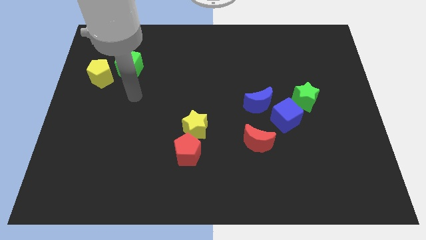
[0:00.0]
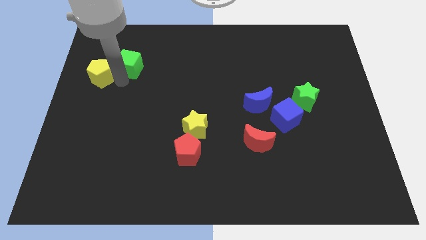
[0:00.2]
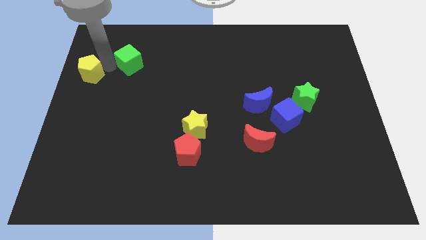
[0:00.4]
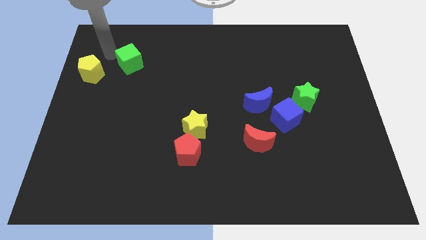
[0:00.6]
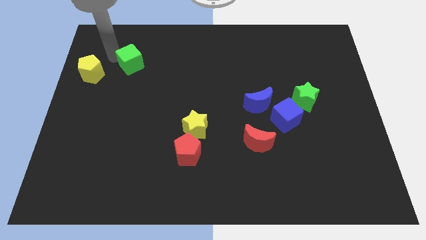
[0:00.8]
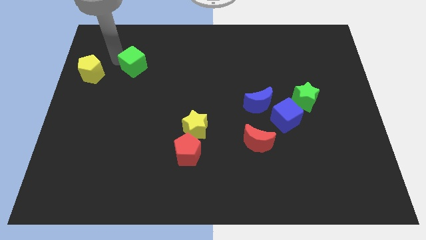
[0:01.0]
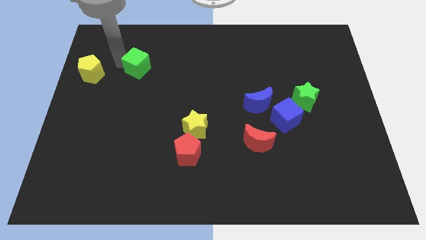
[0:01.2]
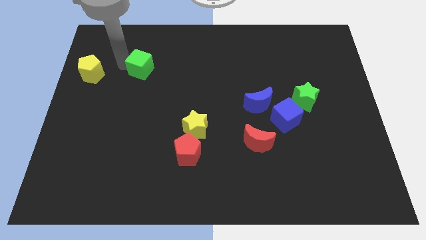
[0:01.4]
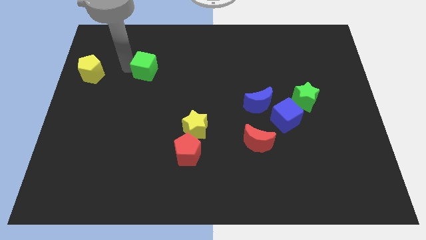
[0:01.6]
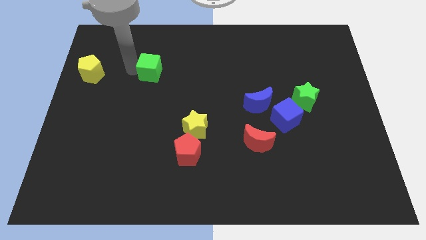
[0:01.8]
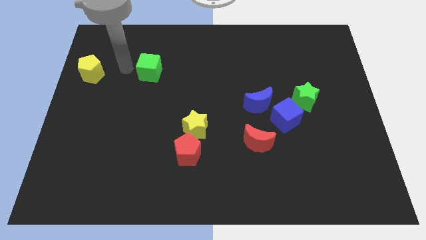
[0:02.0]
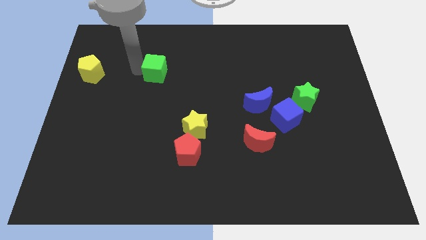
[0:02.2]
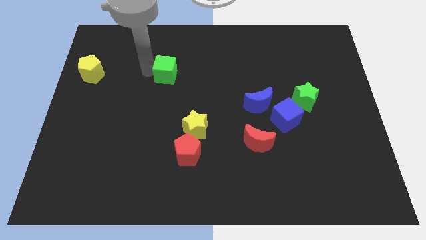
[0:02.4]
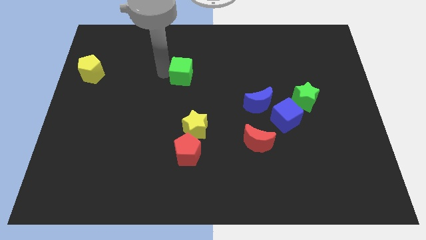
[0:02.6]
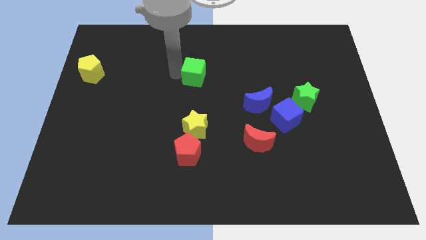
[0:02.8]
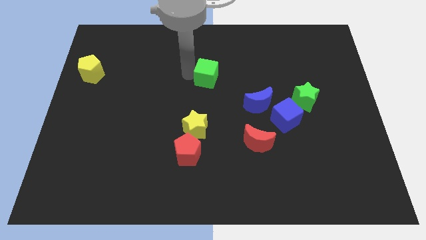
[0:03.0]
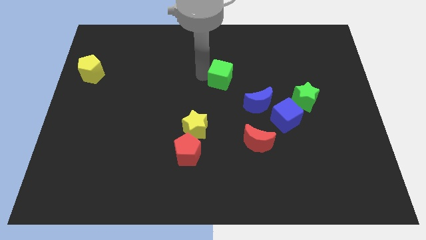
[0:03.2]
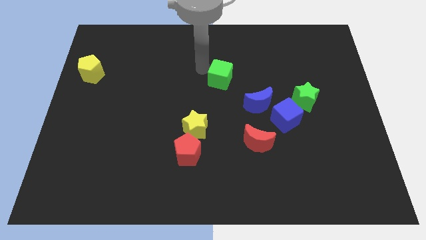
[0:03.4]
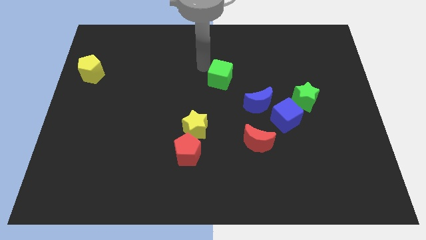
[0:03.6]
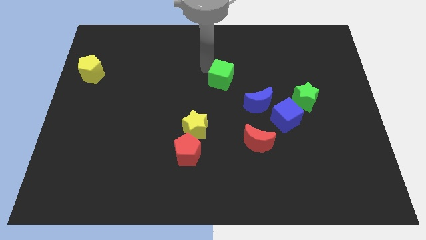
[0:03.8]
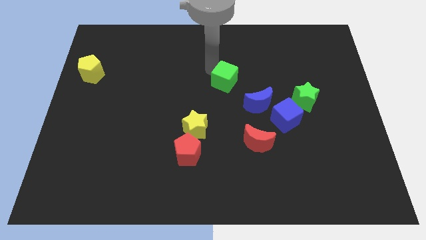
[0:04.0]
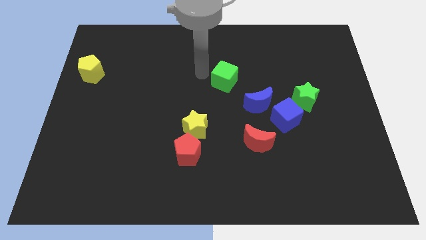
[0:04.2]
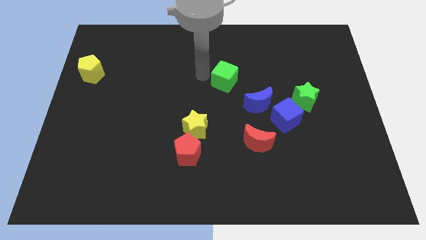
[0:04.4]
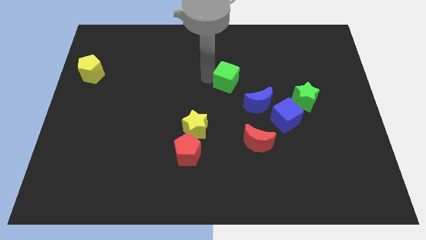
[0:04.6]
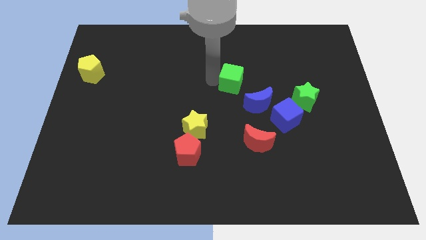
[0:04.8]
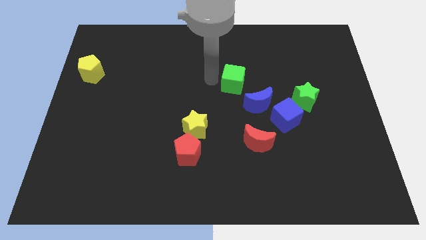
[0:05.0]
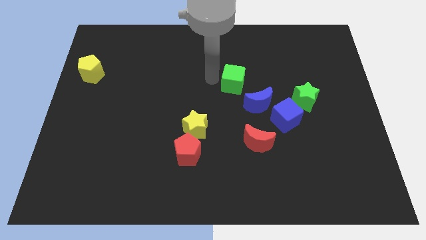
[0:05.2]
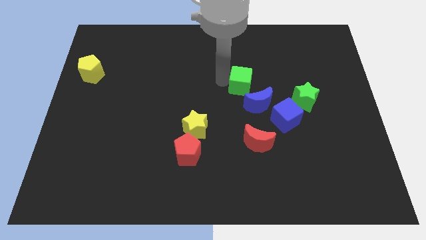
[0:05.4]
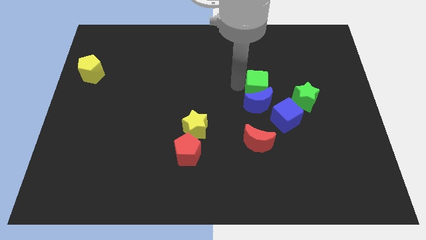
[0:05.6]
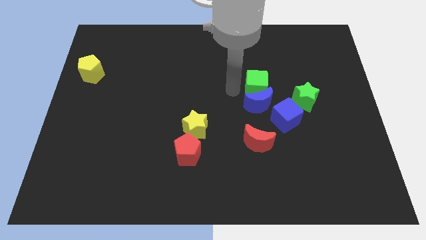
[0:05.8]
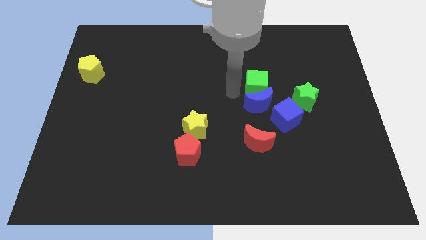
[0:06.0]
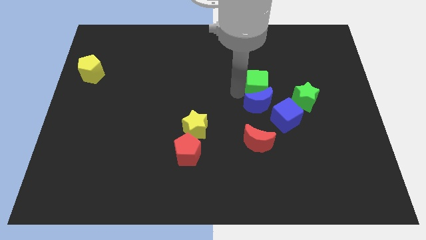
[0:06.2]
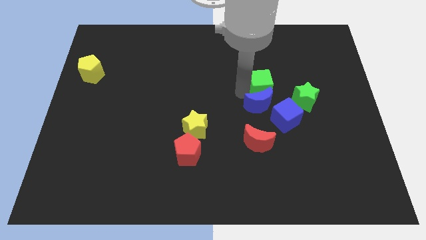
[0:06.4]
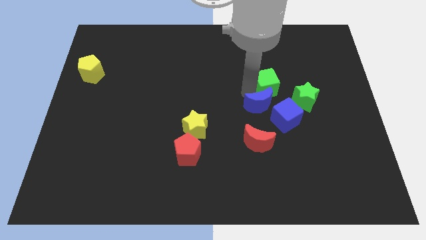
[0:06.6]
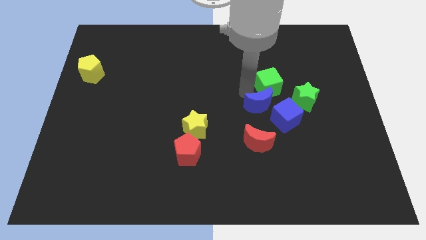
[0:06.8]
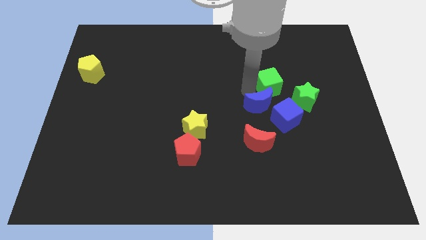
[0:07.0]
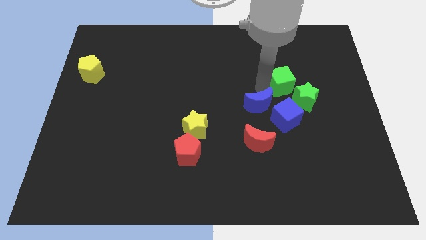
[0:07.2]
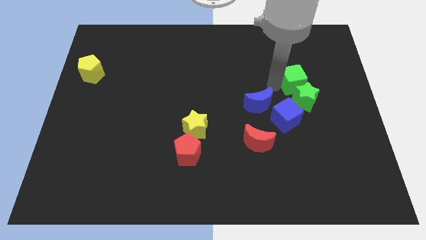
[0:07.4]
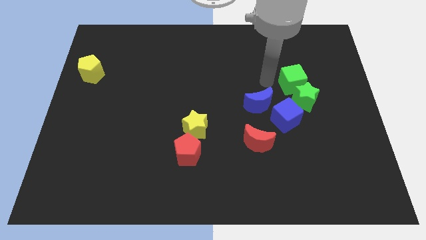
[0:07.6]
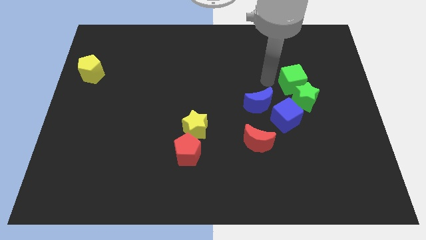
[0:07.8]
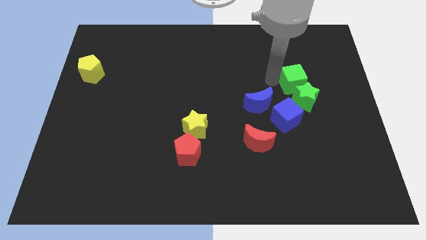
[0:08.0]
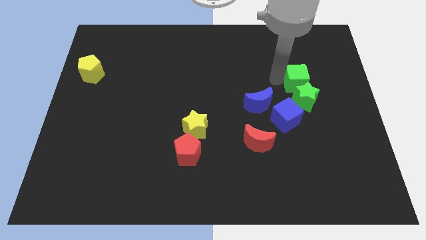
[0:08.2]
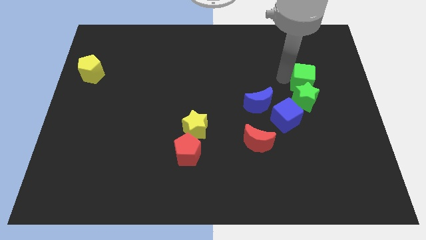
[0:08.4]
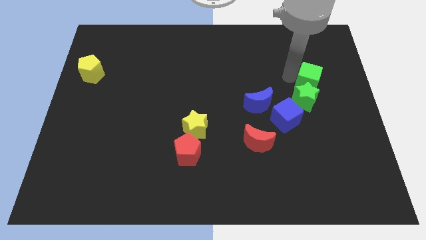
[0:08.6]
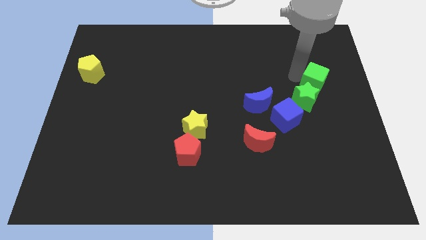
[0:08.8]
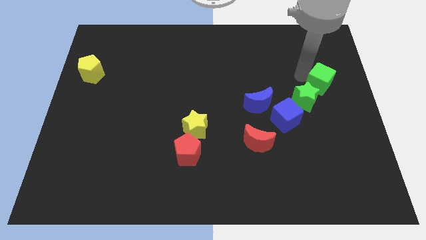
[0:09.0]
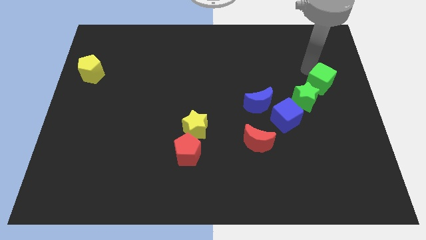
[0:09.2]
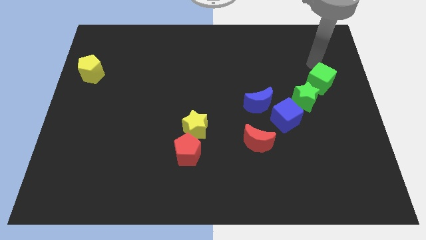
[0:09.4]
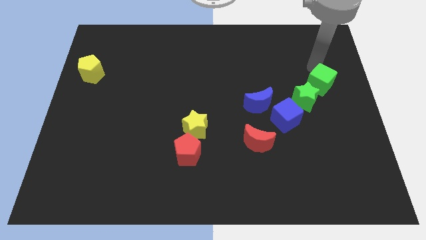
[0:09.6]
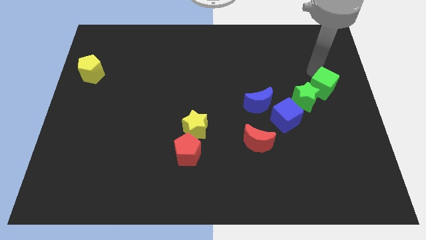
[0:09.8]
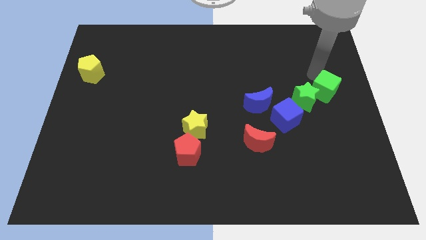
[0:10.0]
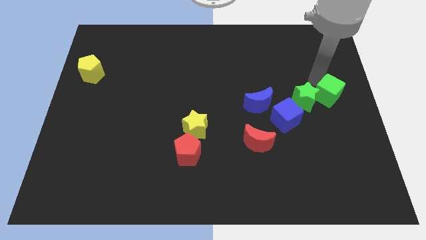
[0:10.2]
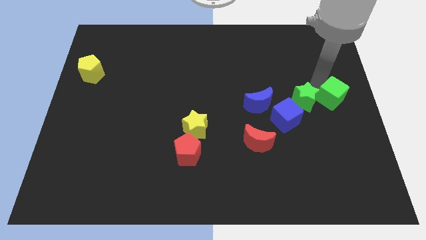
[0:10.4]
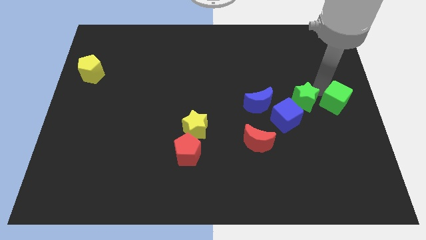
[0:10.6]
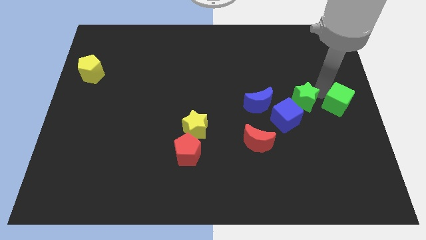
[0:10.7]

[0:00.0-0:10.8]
slide the green cube to the bottom right side of the green star

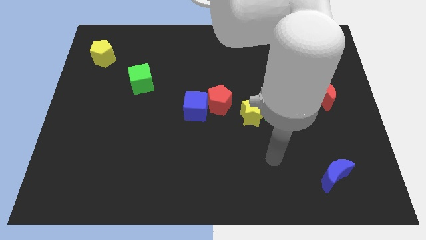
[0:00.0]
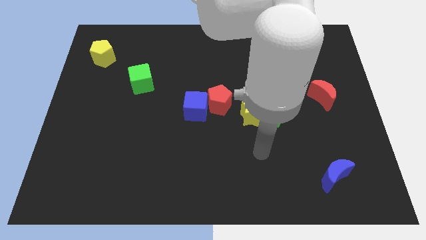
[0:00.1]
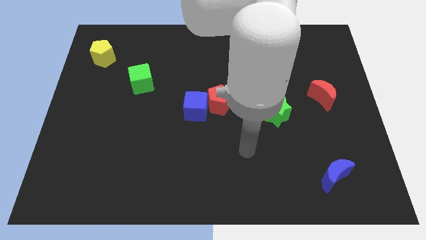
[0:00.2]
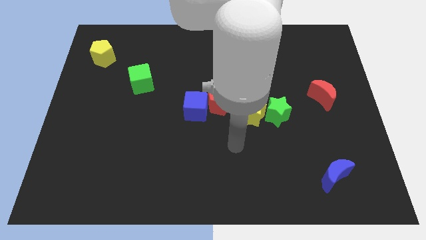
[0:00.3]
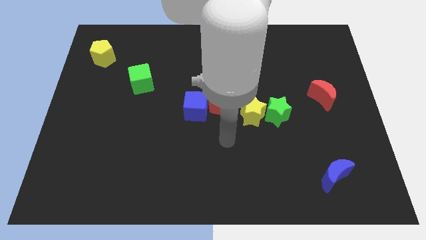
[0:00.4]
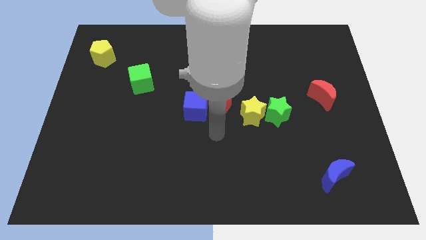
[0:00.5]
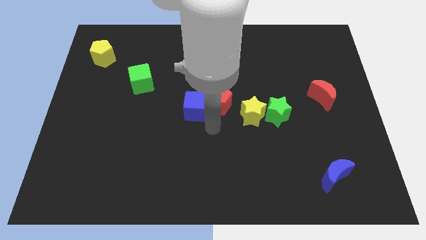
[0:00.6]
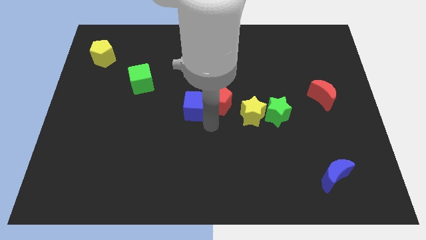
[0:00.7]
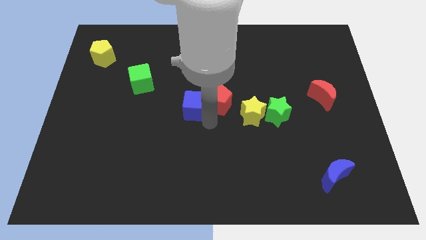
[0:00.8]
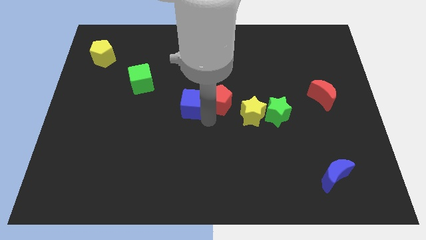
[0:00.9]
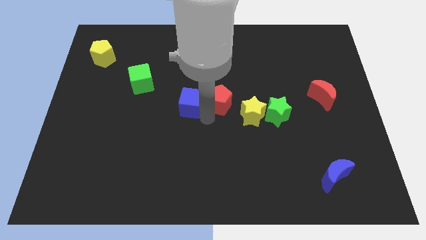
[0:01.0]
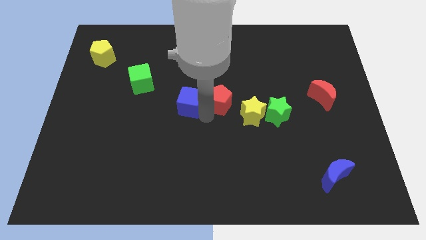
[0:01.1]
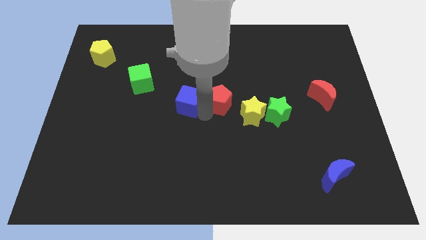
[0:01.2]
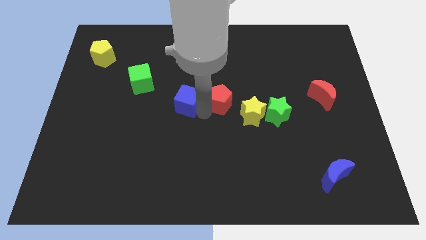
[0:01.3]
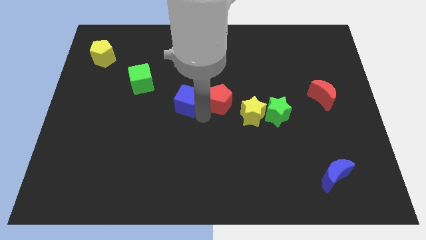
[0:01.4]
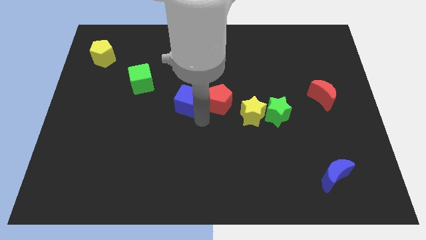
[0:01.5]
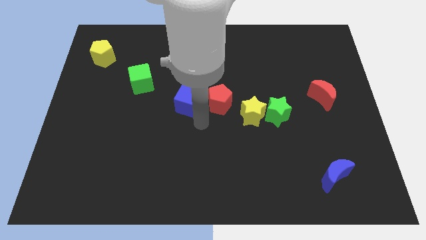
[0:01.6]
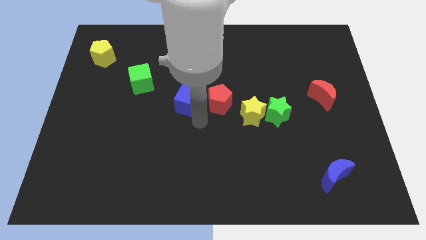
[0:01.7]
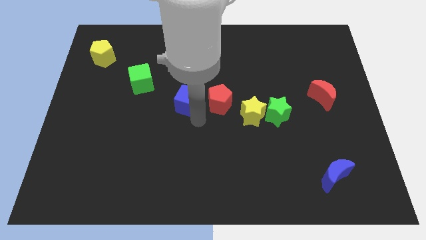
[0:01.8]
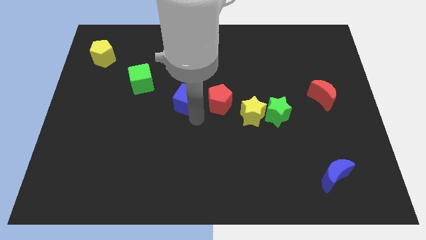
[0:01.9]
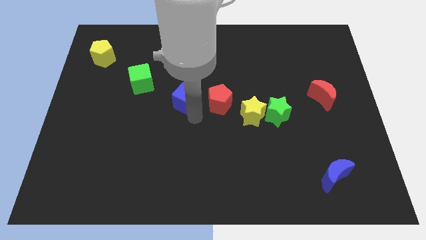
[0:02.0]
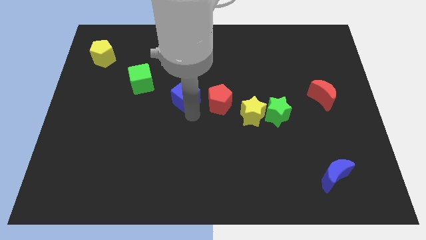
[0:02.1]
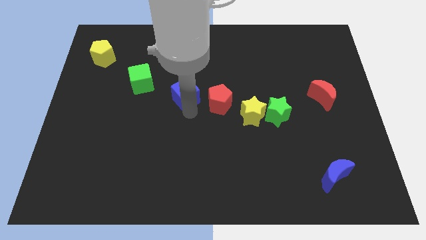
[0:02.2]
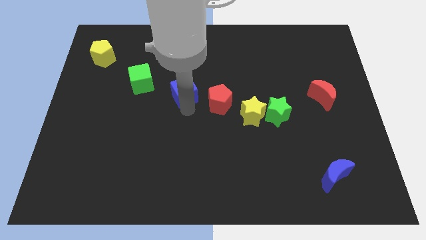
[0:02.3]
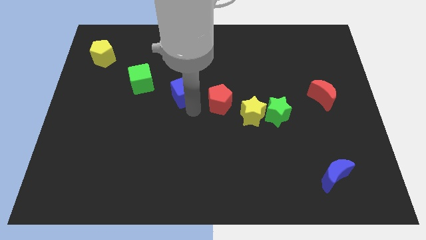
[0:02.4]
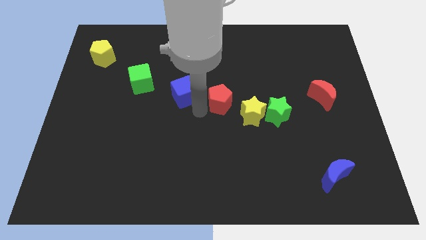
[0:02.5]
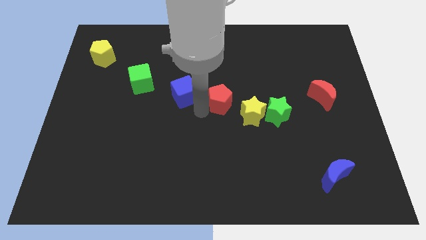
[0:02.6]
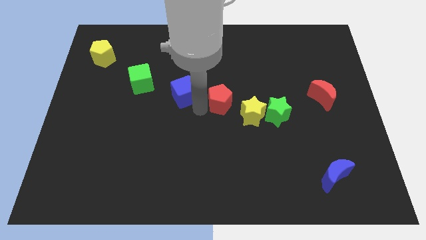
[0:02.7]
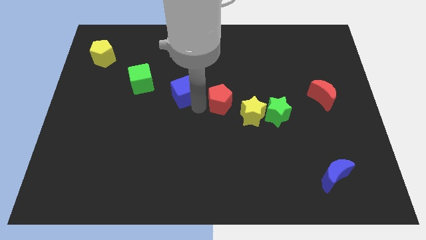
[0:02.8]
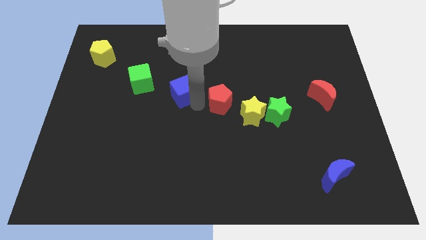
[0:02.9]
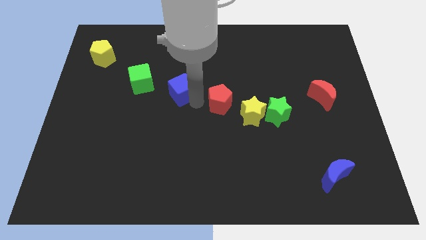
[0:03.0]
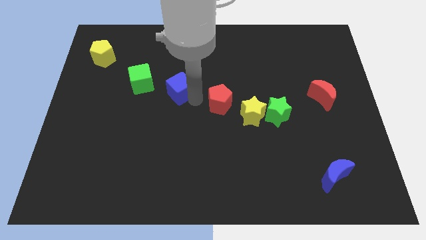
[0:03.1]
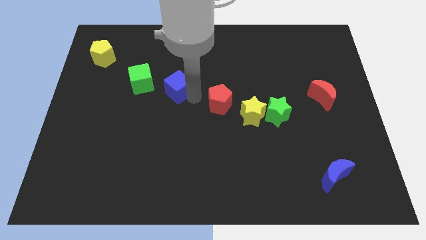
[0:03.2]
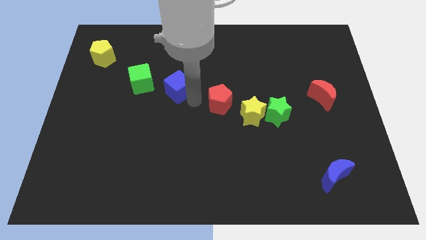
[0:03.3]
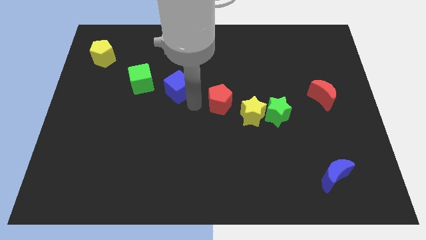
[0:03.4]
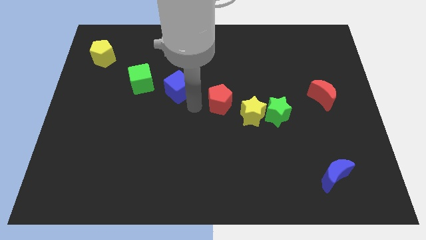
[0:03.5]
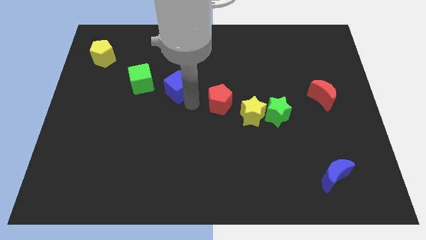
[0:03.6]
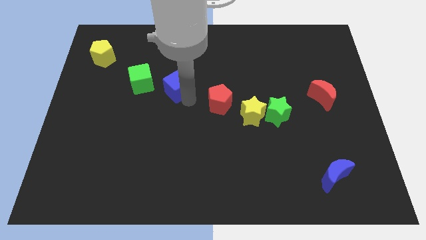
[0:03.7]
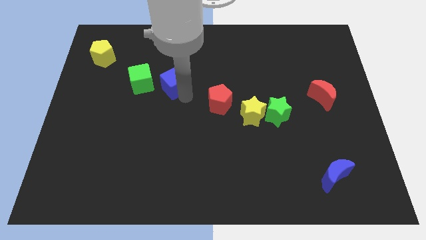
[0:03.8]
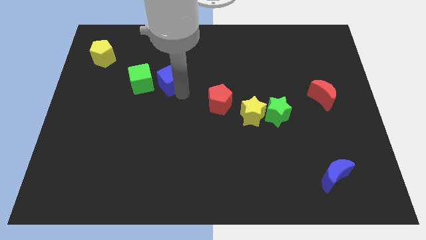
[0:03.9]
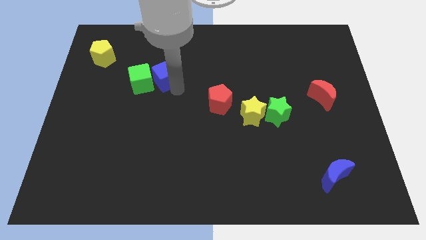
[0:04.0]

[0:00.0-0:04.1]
slide the blue cube diagonally up and to the right of the green cube
